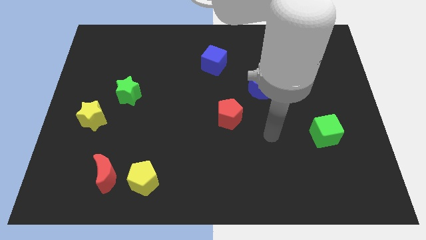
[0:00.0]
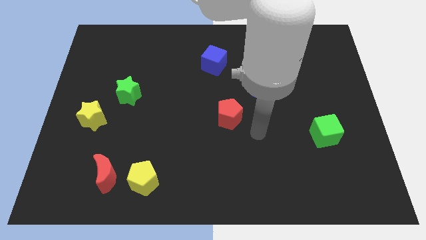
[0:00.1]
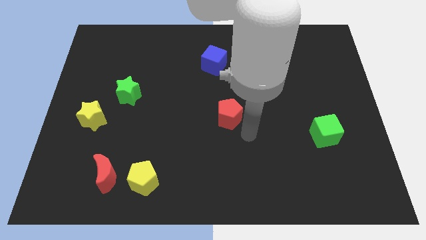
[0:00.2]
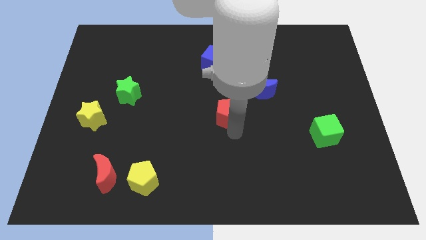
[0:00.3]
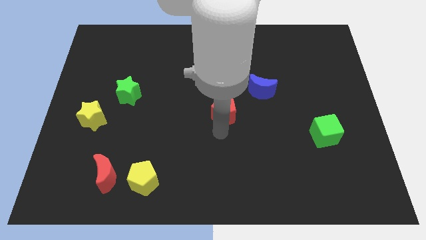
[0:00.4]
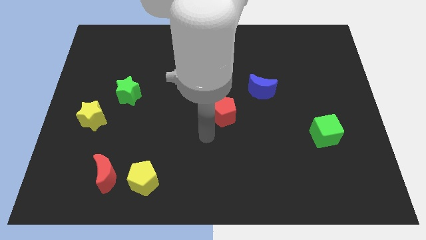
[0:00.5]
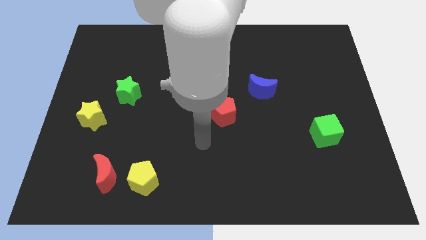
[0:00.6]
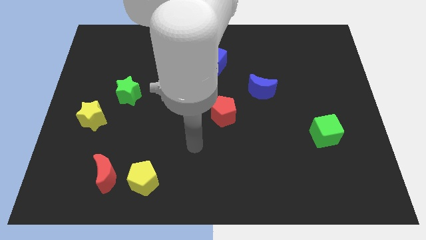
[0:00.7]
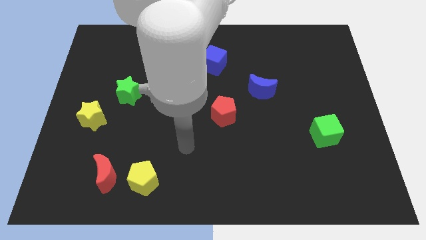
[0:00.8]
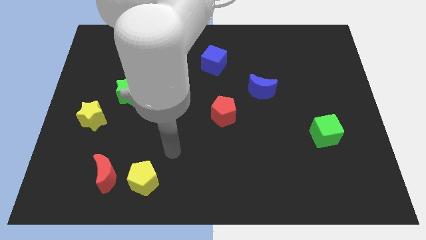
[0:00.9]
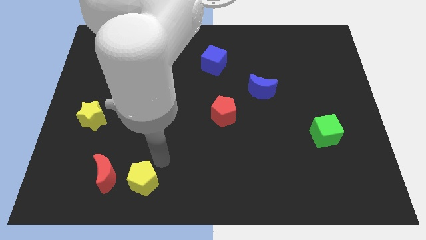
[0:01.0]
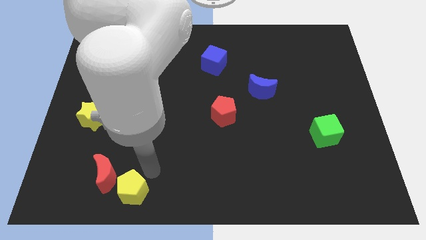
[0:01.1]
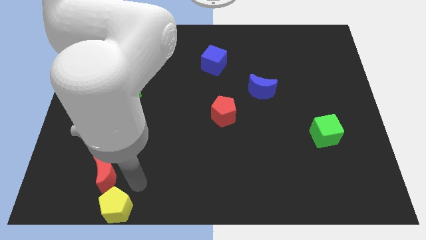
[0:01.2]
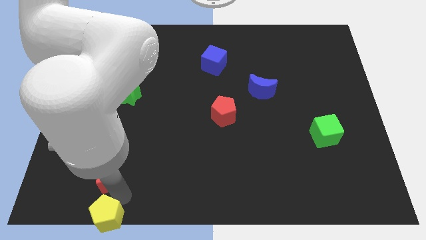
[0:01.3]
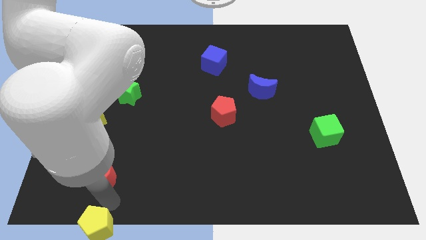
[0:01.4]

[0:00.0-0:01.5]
pull the red moon apart from the yellow pentagon

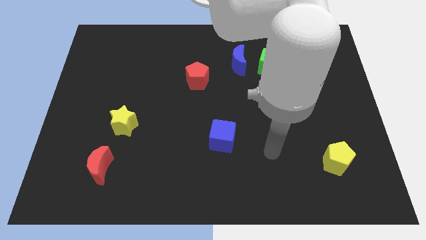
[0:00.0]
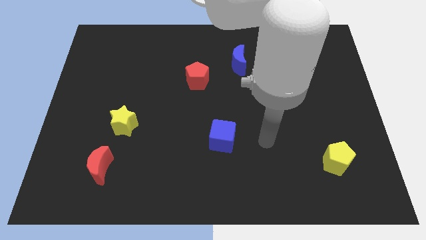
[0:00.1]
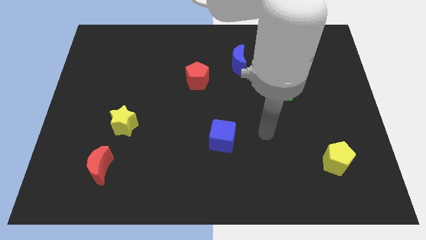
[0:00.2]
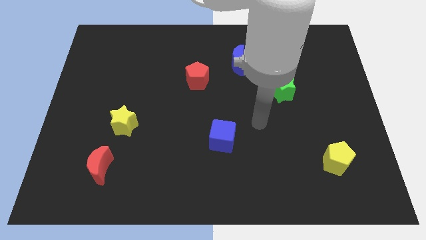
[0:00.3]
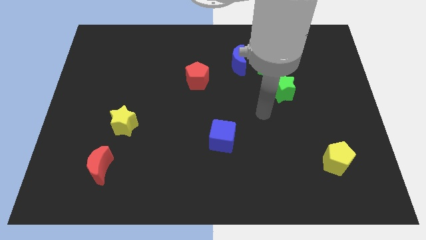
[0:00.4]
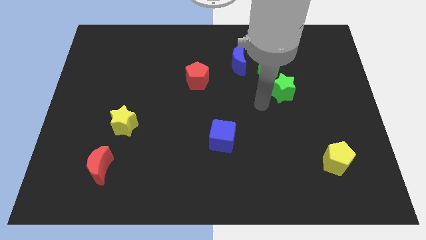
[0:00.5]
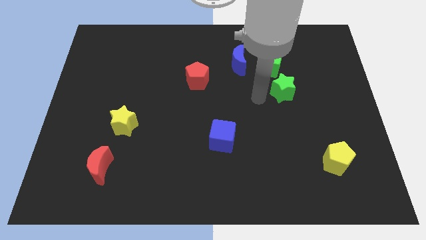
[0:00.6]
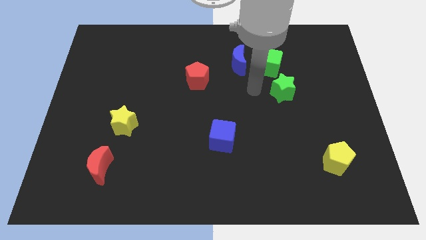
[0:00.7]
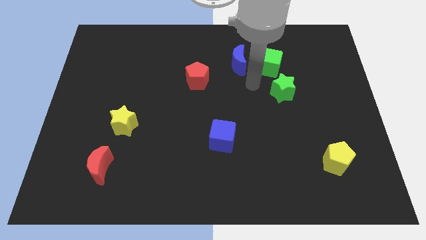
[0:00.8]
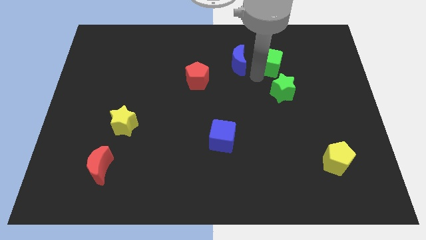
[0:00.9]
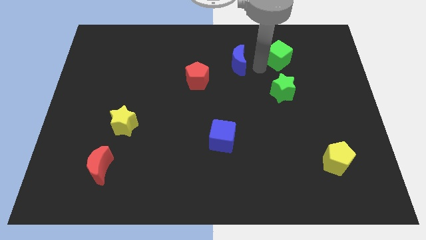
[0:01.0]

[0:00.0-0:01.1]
separate the blue moon from the green cube

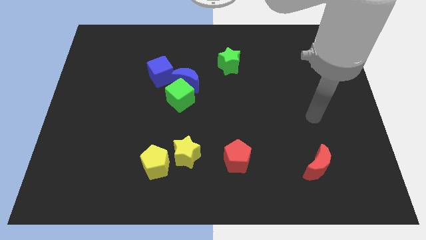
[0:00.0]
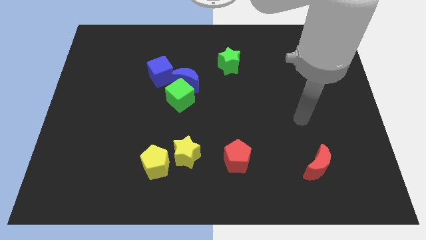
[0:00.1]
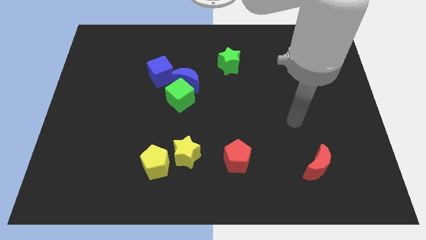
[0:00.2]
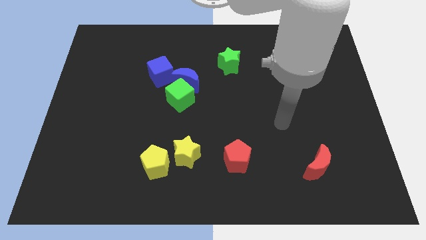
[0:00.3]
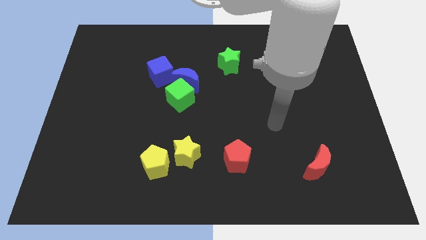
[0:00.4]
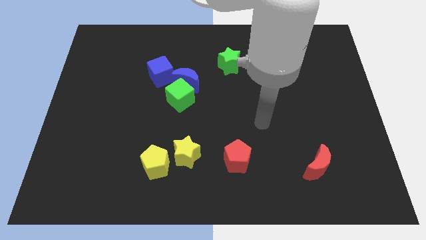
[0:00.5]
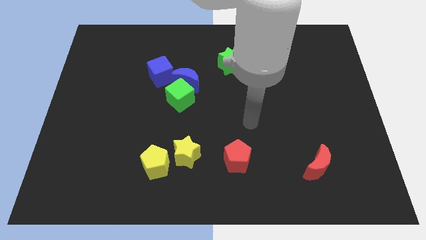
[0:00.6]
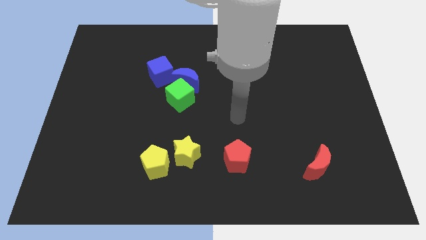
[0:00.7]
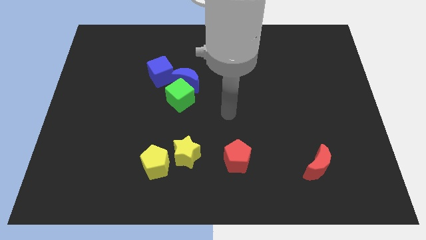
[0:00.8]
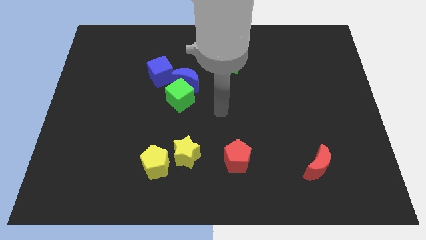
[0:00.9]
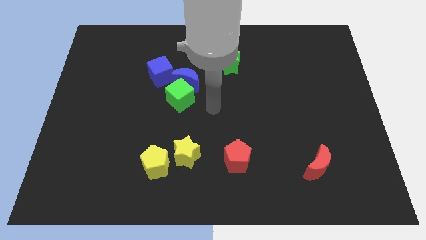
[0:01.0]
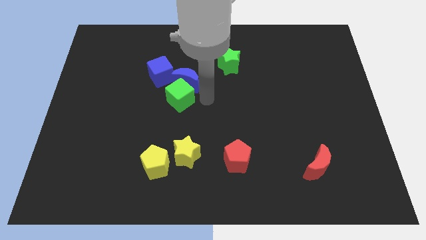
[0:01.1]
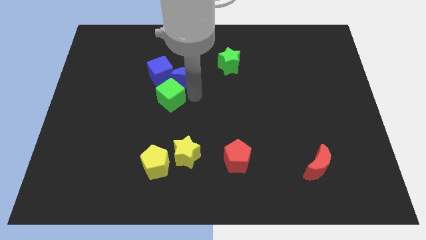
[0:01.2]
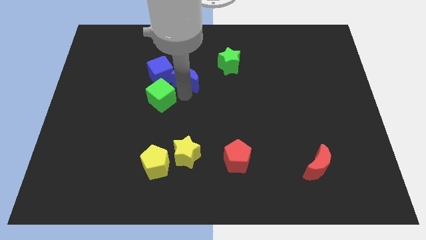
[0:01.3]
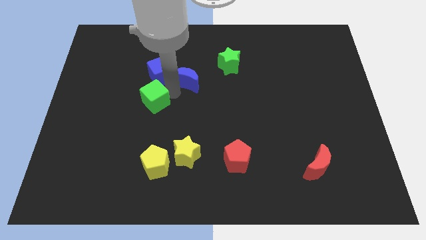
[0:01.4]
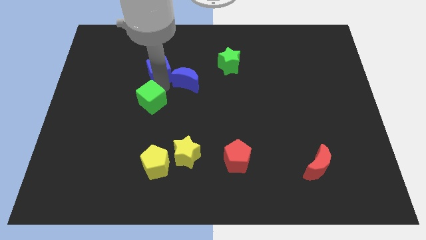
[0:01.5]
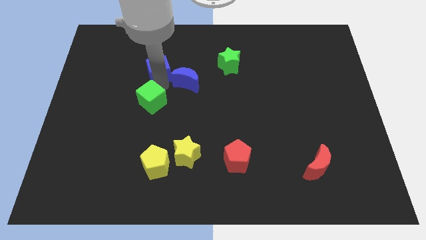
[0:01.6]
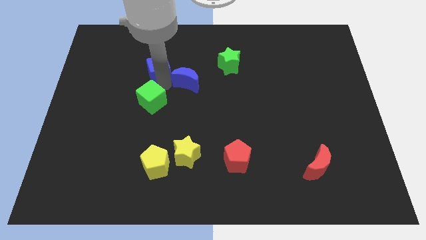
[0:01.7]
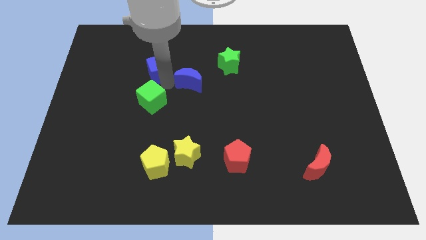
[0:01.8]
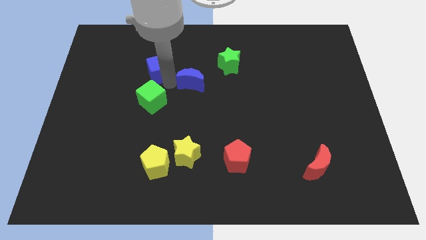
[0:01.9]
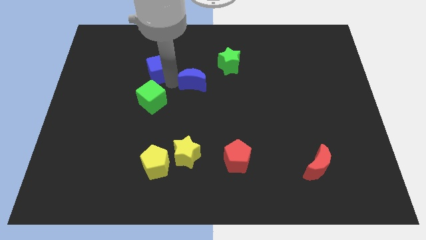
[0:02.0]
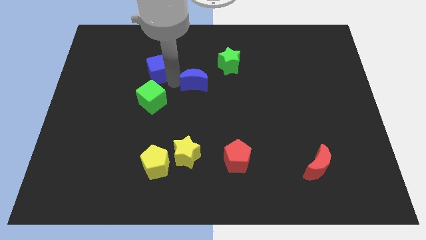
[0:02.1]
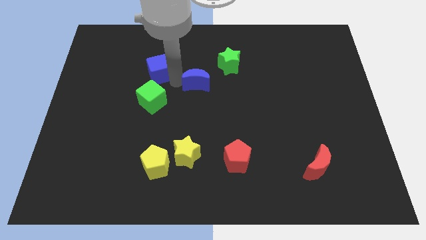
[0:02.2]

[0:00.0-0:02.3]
move the blue moon away from the green cube and blue cube

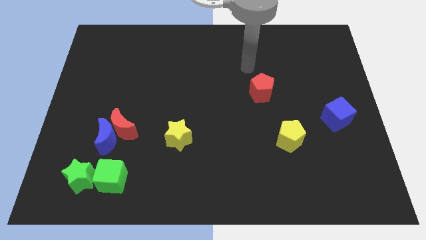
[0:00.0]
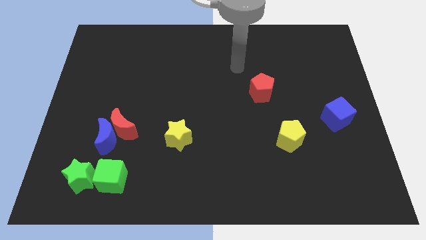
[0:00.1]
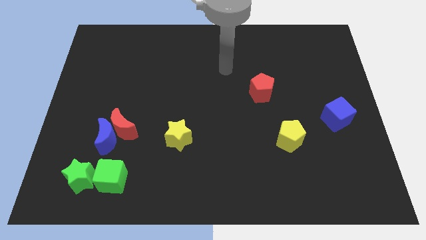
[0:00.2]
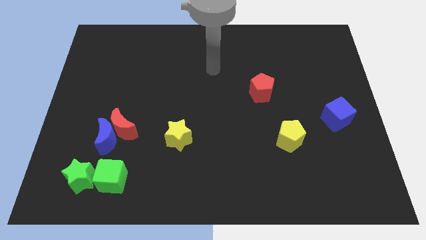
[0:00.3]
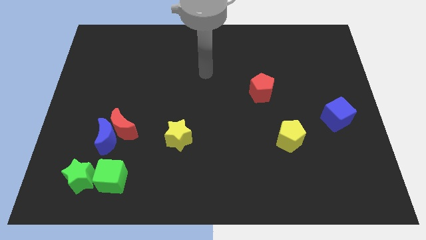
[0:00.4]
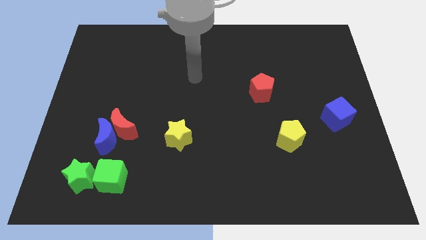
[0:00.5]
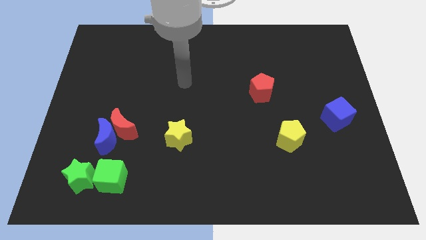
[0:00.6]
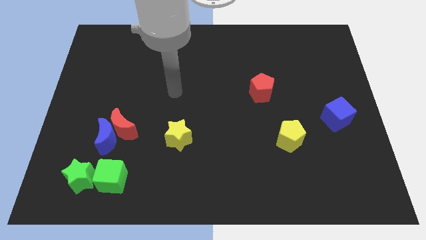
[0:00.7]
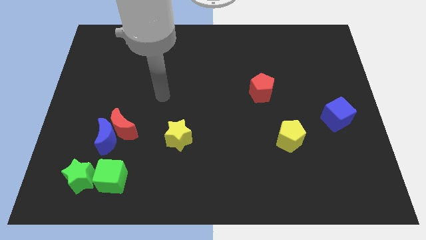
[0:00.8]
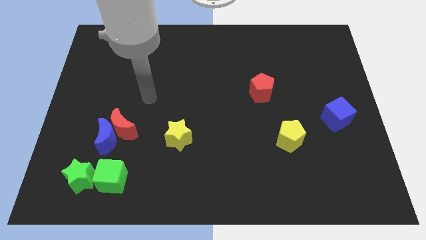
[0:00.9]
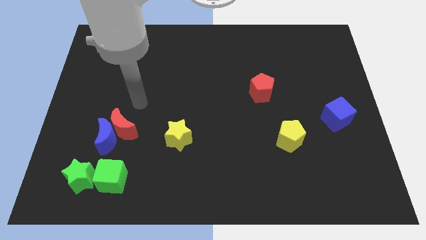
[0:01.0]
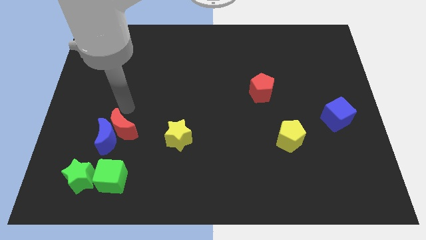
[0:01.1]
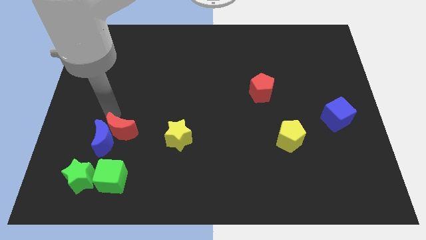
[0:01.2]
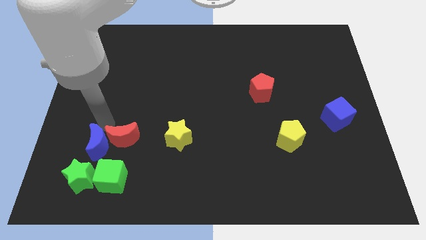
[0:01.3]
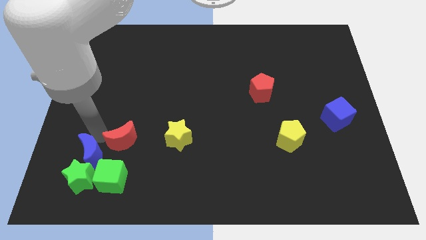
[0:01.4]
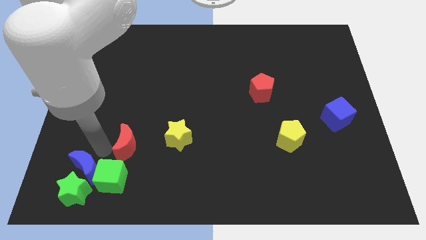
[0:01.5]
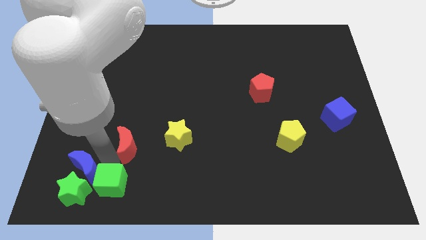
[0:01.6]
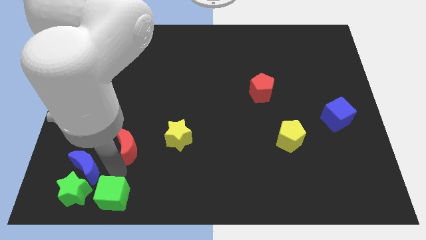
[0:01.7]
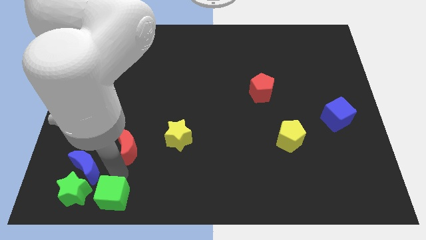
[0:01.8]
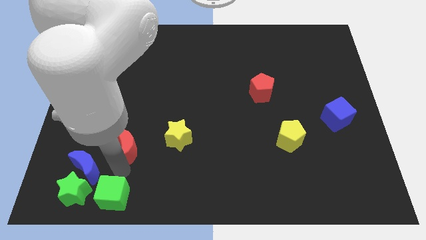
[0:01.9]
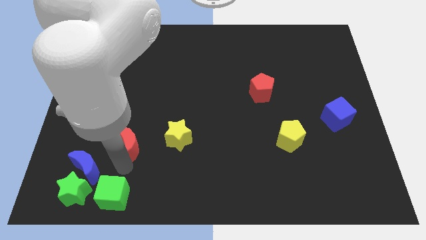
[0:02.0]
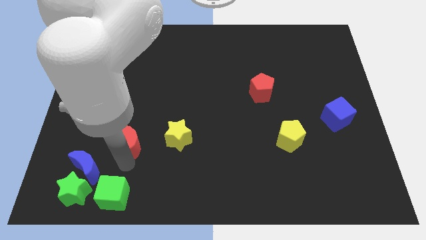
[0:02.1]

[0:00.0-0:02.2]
move the red moon away from the blue moon

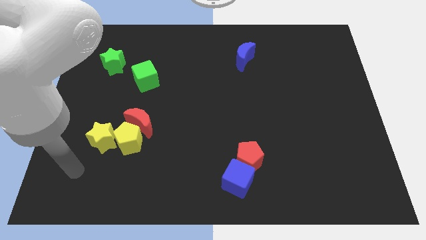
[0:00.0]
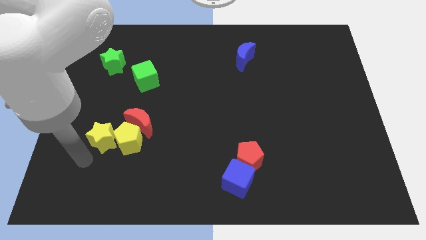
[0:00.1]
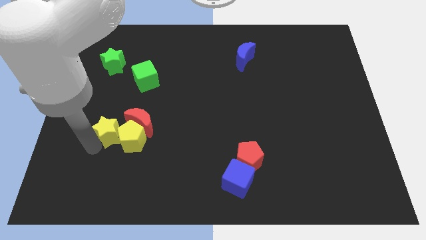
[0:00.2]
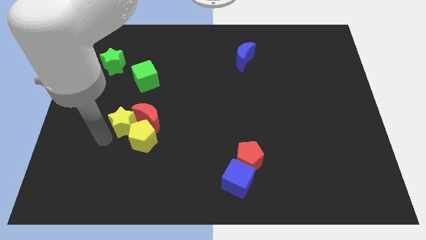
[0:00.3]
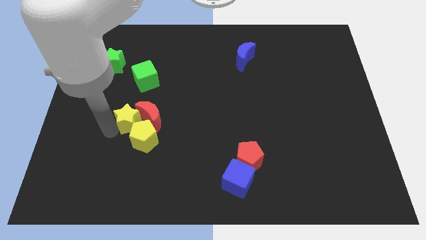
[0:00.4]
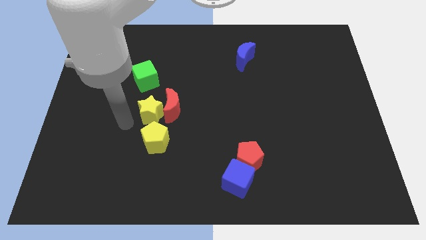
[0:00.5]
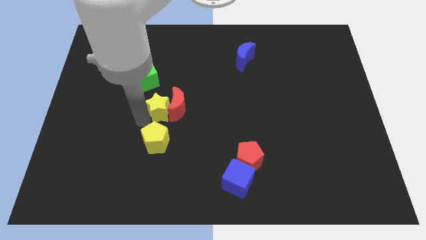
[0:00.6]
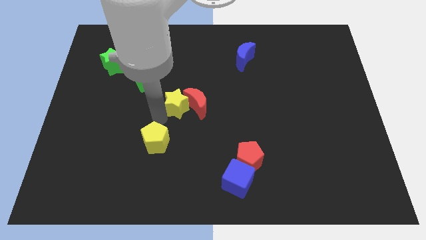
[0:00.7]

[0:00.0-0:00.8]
separate the yellow pentagon from the red moon and yellow star

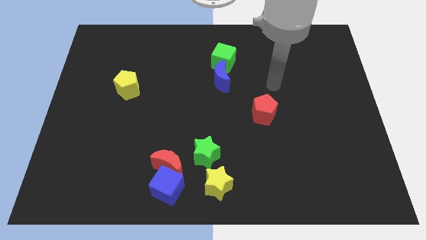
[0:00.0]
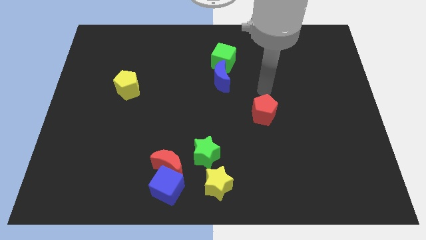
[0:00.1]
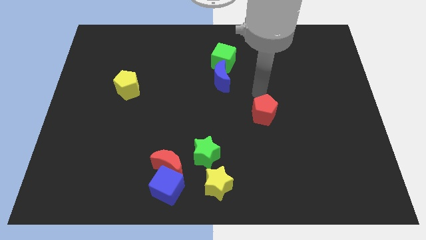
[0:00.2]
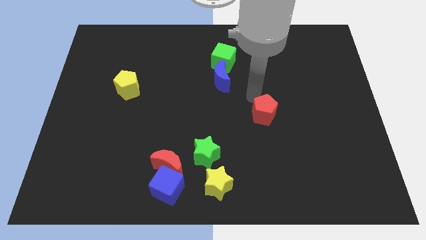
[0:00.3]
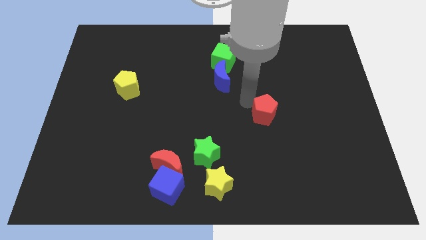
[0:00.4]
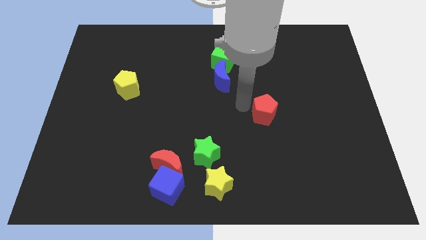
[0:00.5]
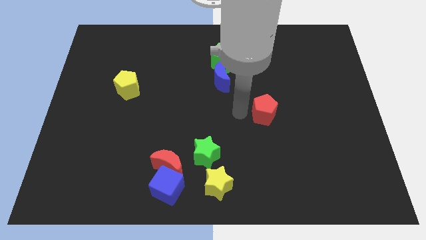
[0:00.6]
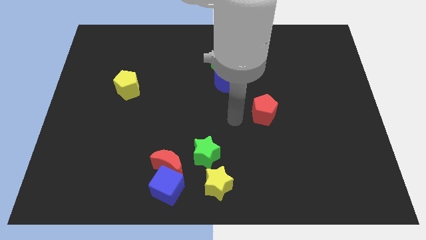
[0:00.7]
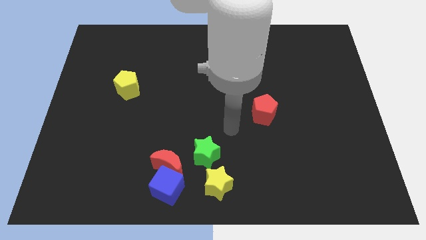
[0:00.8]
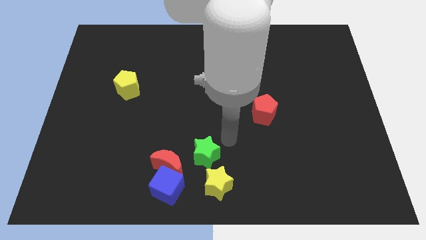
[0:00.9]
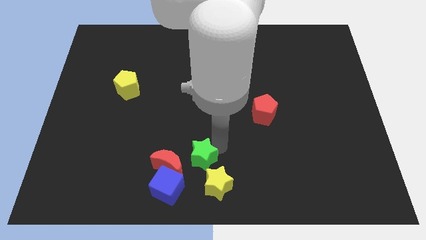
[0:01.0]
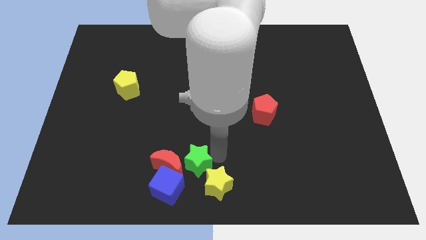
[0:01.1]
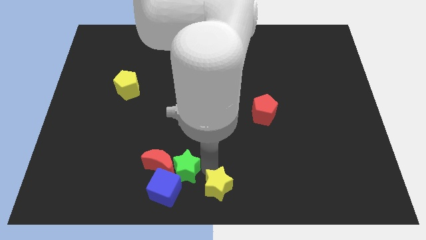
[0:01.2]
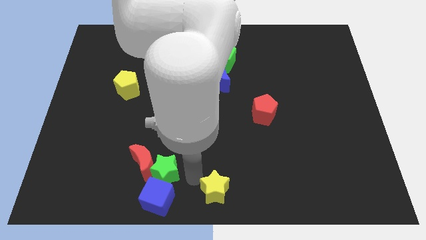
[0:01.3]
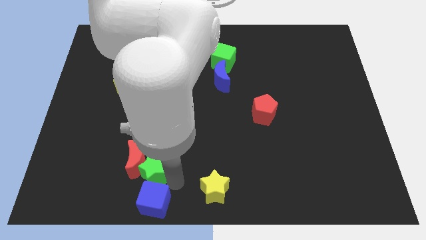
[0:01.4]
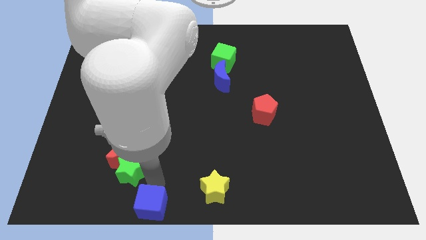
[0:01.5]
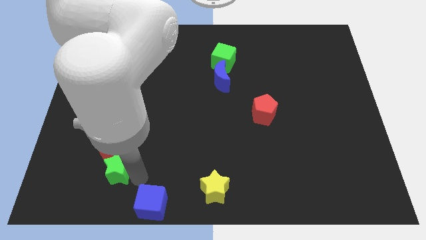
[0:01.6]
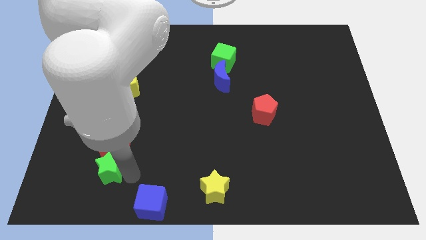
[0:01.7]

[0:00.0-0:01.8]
pull the red moon apart from the blue cube and green star
